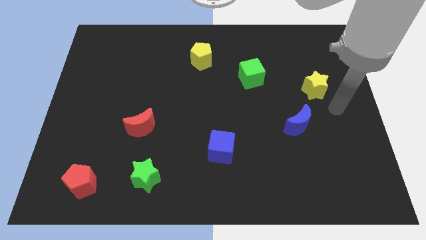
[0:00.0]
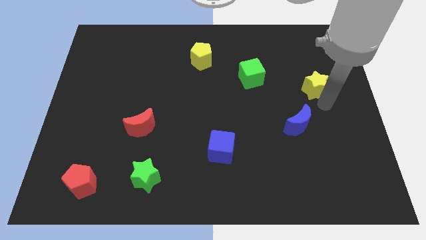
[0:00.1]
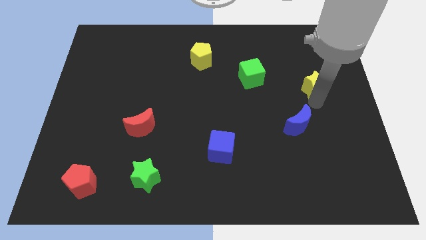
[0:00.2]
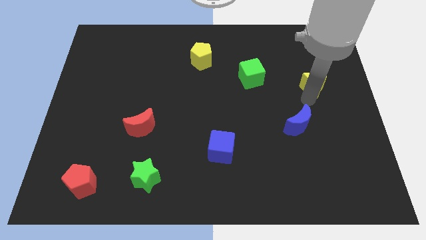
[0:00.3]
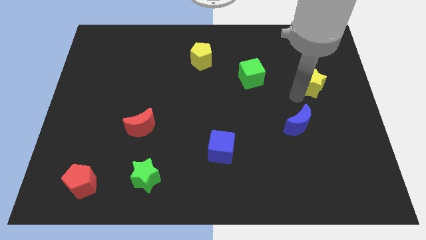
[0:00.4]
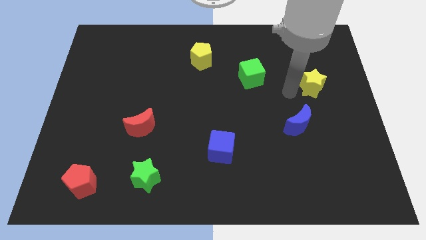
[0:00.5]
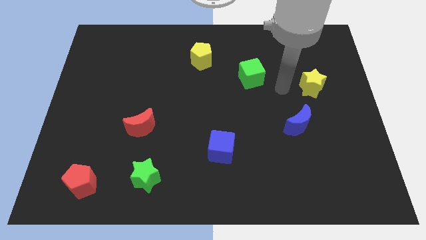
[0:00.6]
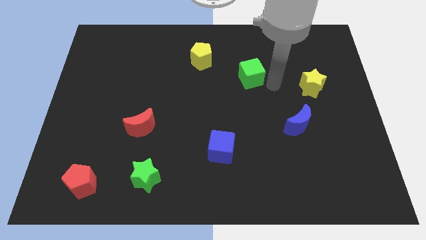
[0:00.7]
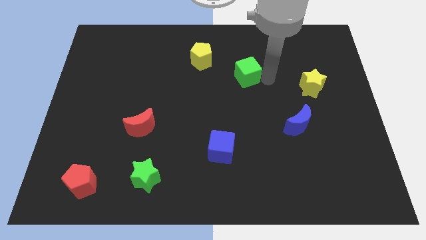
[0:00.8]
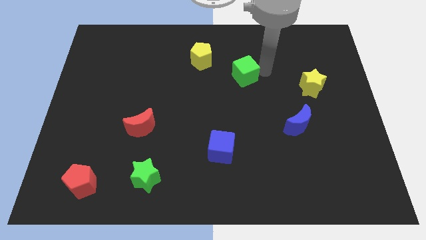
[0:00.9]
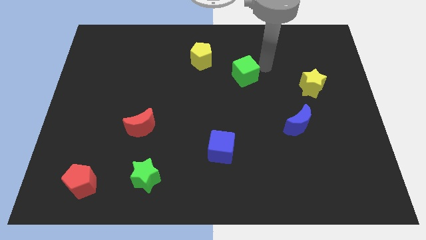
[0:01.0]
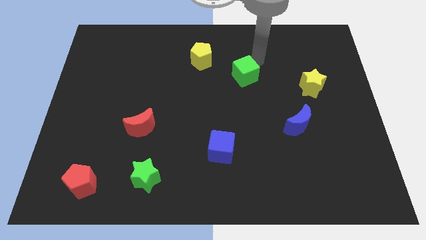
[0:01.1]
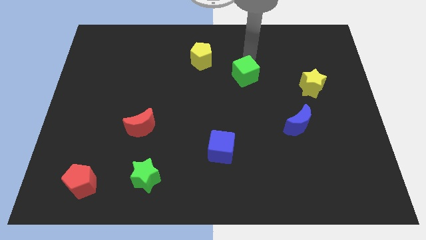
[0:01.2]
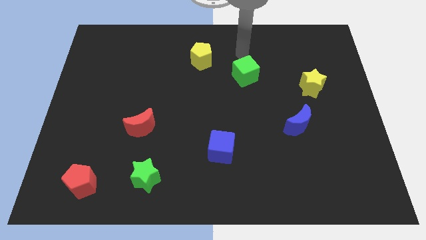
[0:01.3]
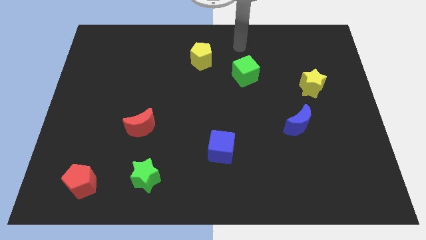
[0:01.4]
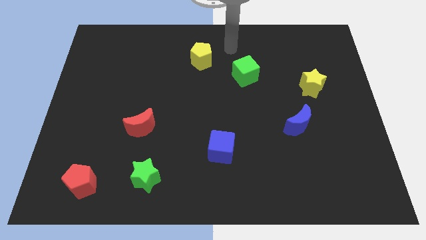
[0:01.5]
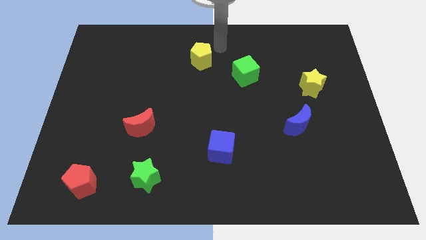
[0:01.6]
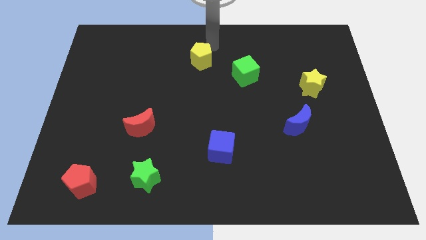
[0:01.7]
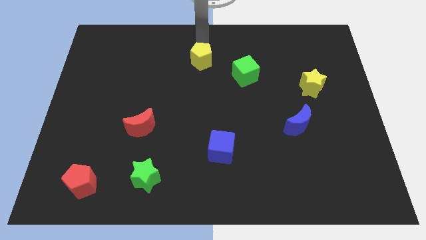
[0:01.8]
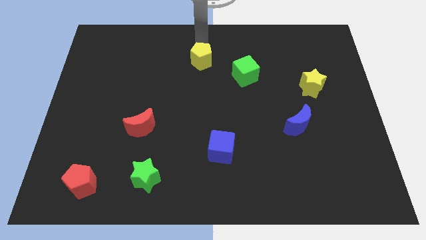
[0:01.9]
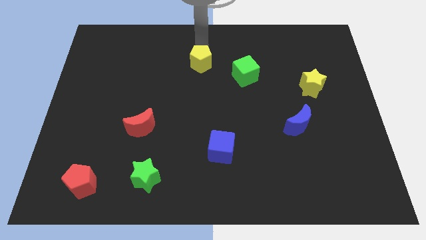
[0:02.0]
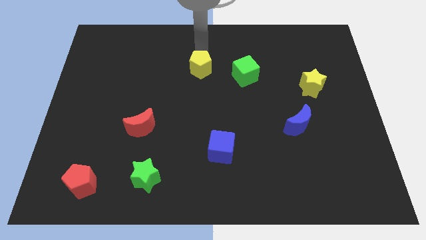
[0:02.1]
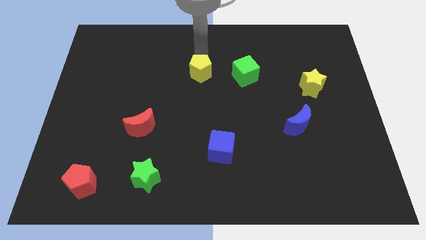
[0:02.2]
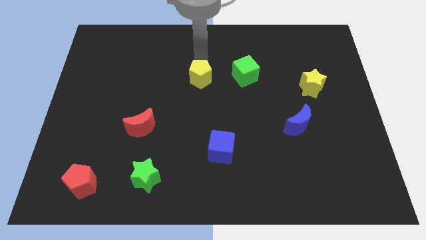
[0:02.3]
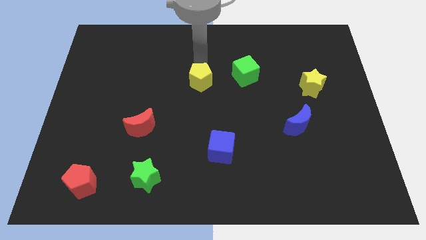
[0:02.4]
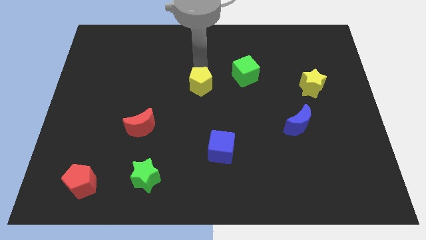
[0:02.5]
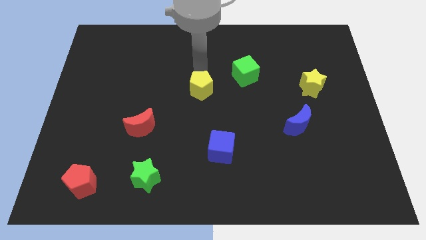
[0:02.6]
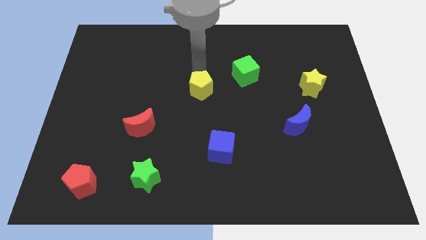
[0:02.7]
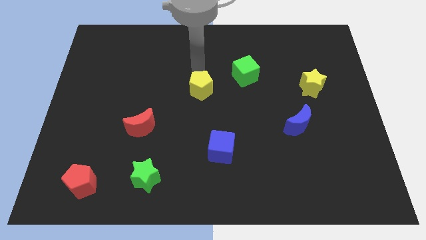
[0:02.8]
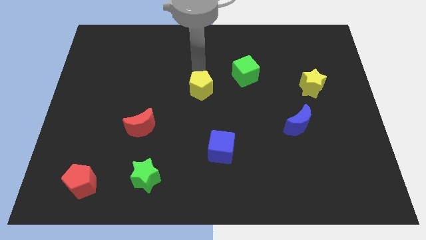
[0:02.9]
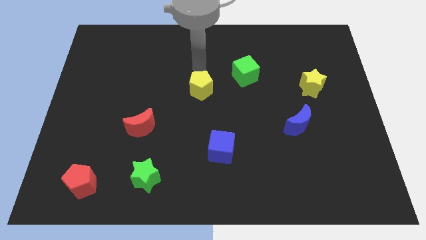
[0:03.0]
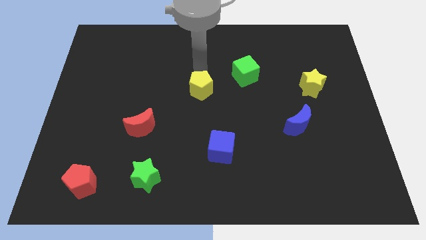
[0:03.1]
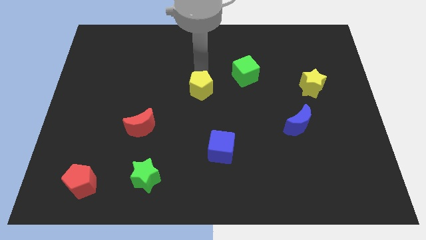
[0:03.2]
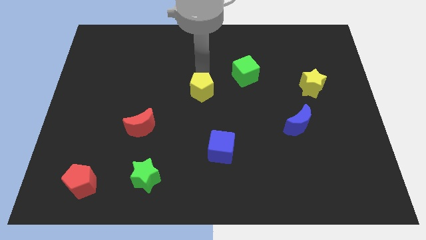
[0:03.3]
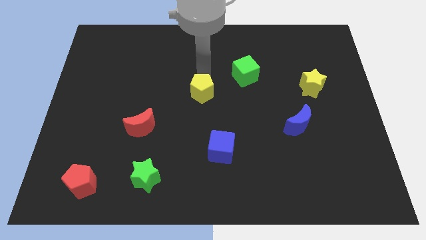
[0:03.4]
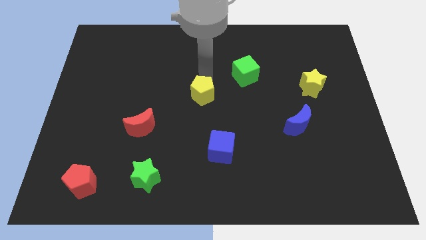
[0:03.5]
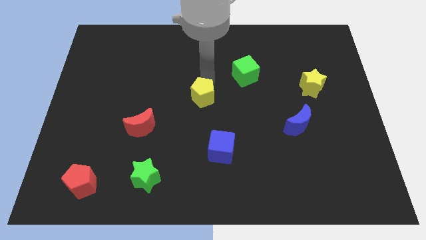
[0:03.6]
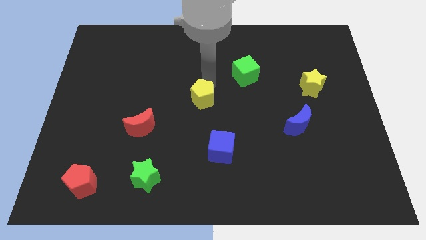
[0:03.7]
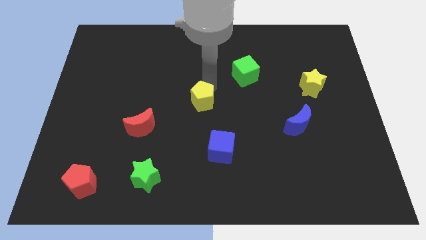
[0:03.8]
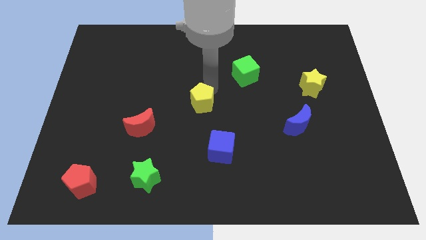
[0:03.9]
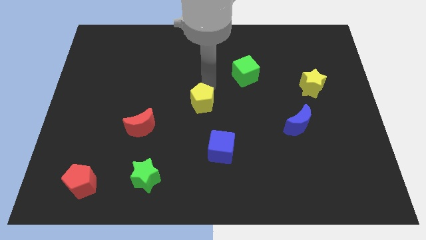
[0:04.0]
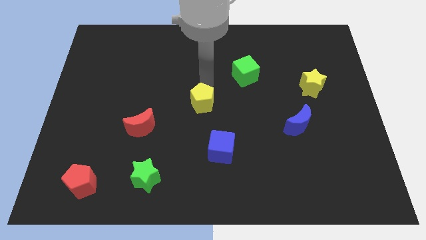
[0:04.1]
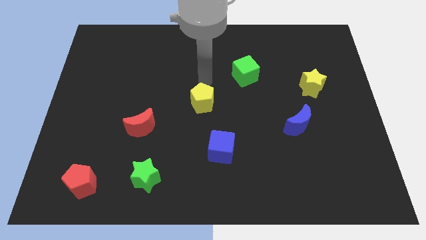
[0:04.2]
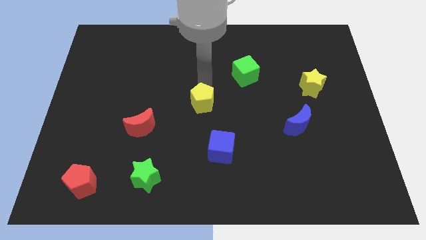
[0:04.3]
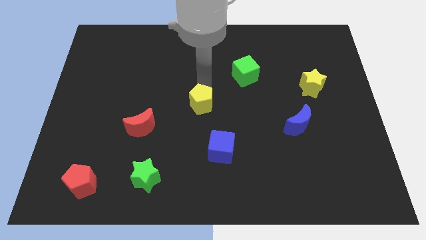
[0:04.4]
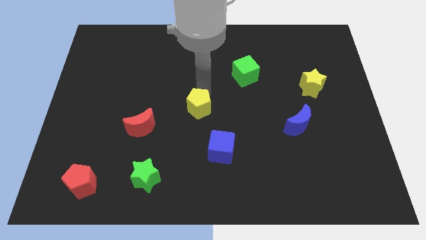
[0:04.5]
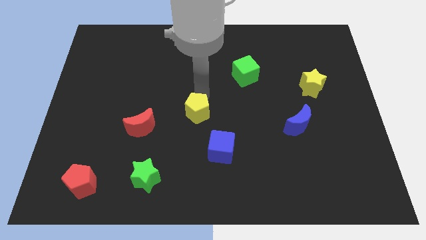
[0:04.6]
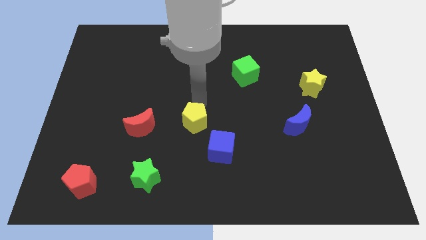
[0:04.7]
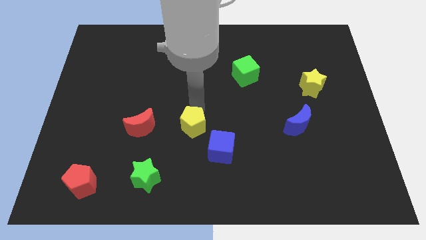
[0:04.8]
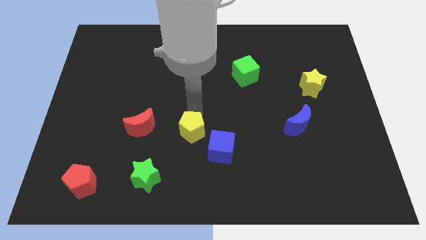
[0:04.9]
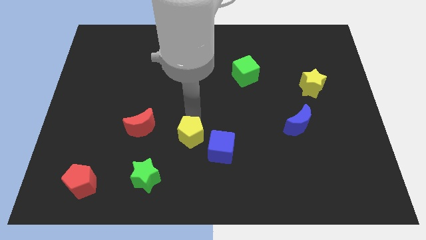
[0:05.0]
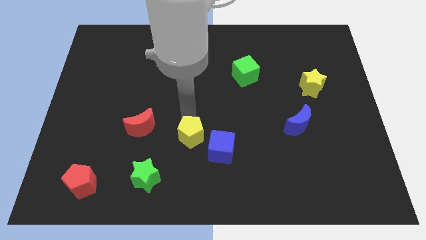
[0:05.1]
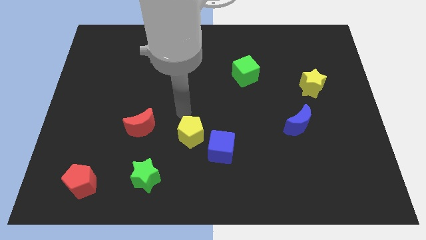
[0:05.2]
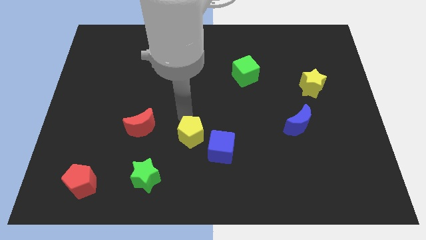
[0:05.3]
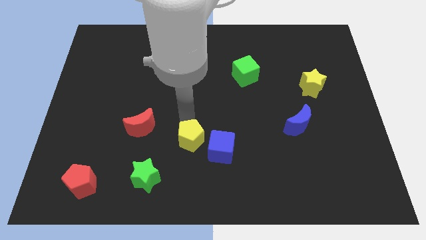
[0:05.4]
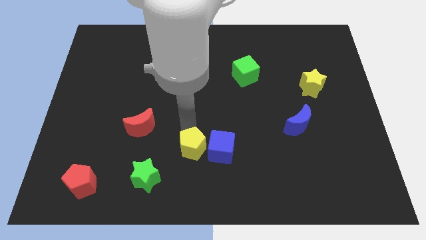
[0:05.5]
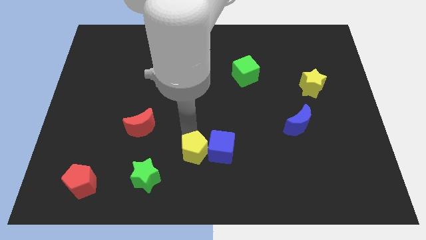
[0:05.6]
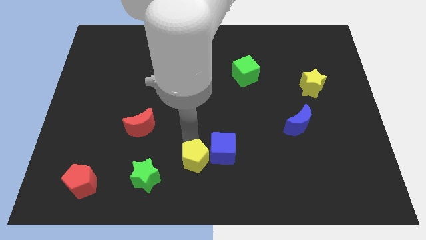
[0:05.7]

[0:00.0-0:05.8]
slide the yellow pentagon to the bottom

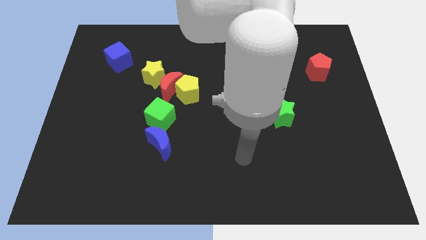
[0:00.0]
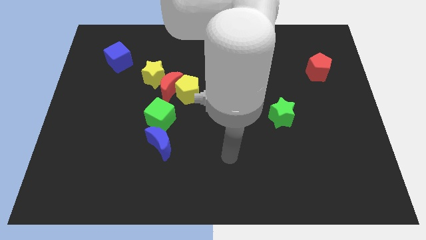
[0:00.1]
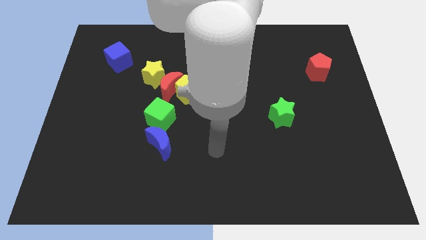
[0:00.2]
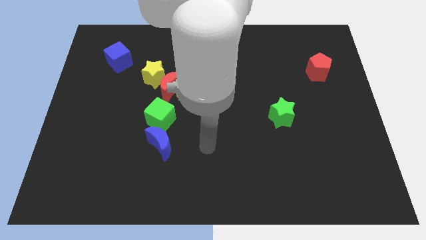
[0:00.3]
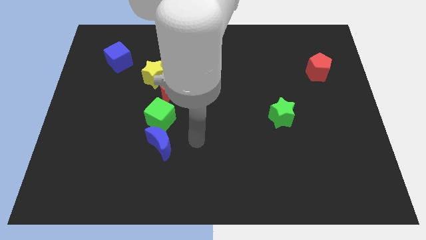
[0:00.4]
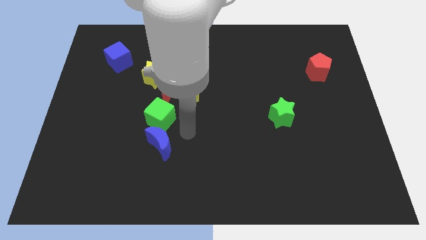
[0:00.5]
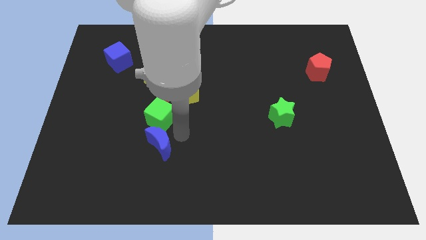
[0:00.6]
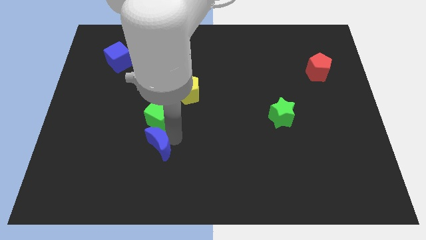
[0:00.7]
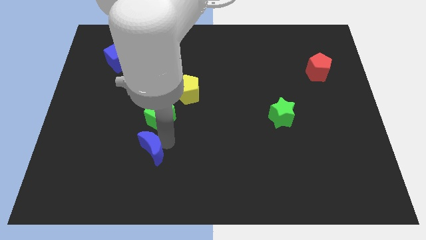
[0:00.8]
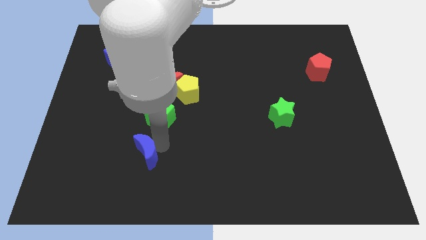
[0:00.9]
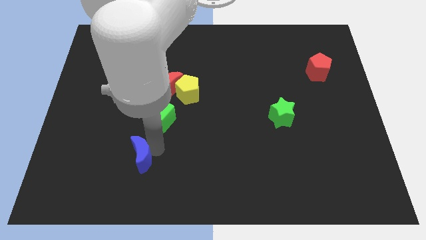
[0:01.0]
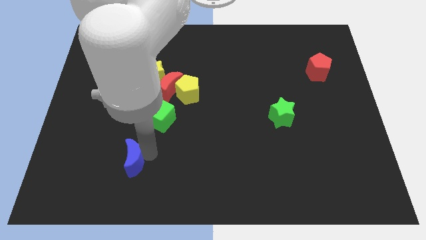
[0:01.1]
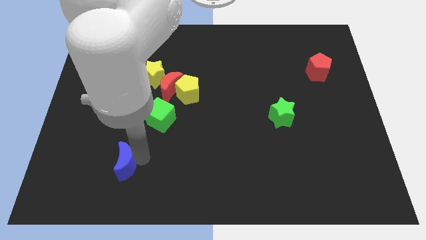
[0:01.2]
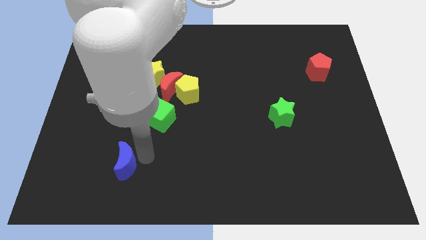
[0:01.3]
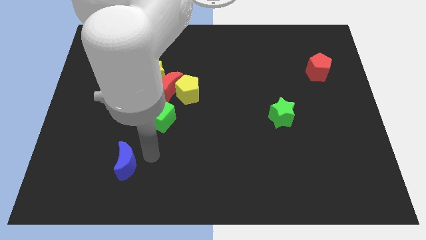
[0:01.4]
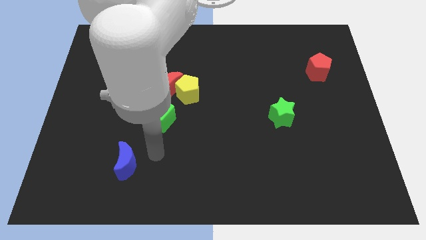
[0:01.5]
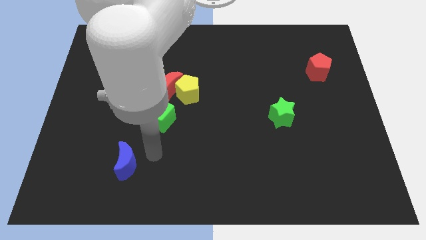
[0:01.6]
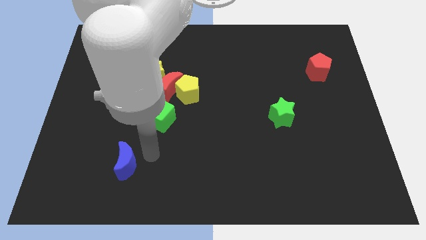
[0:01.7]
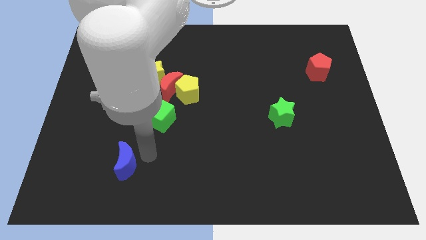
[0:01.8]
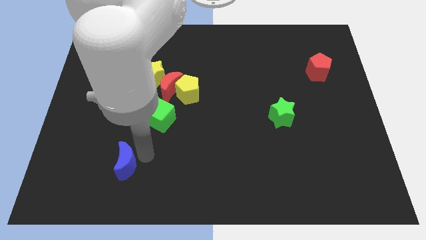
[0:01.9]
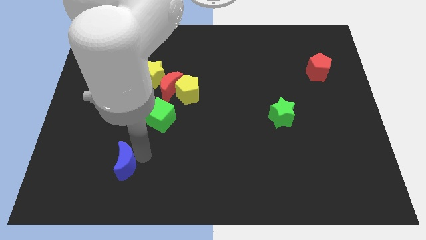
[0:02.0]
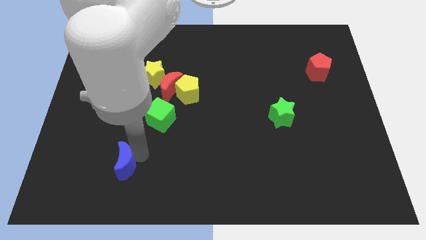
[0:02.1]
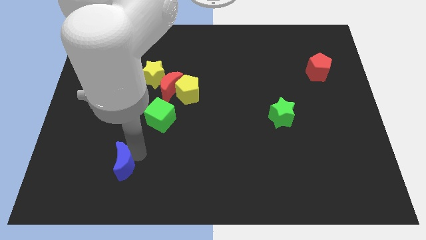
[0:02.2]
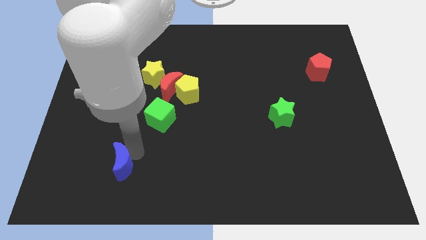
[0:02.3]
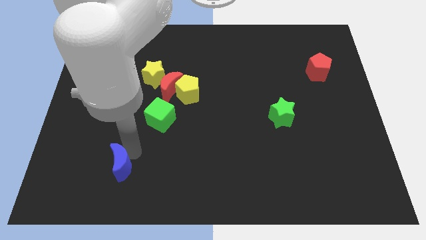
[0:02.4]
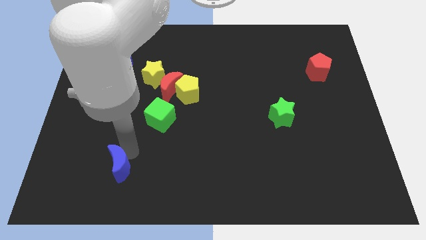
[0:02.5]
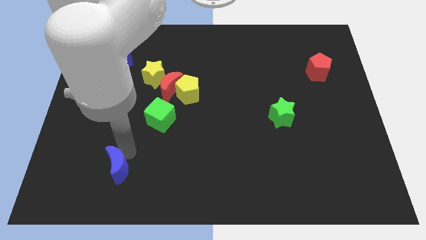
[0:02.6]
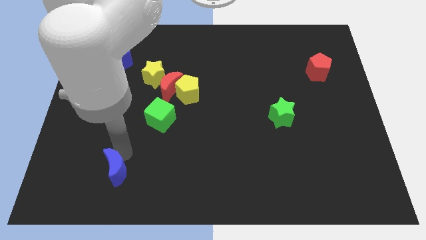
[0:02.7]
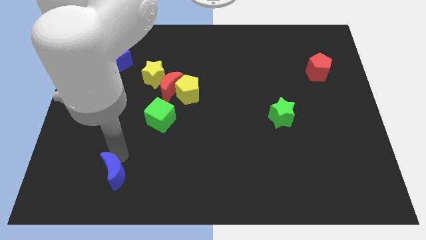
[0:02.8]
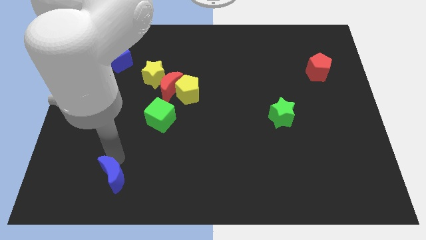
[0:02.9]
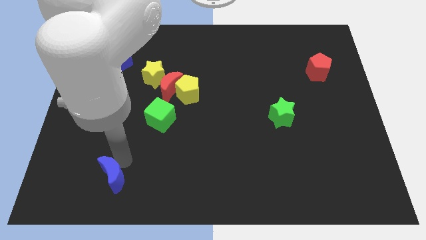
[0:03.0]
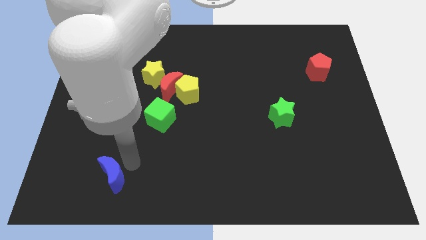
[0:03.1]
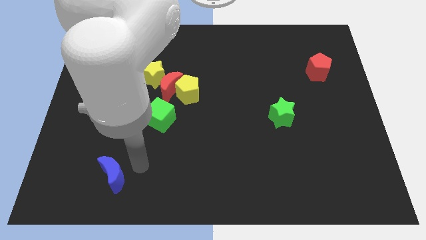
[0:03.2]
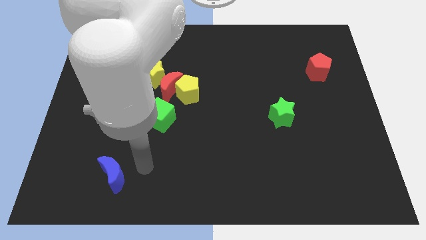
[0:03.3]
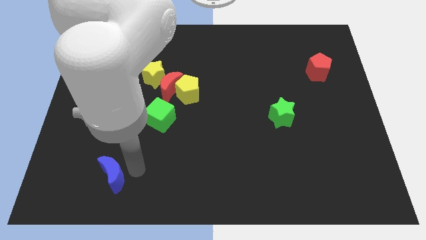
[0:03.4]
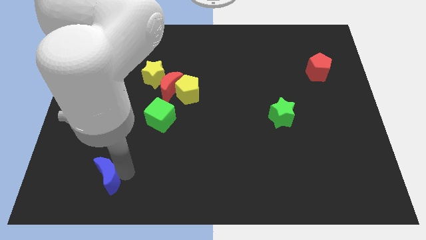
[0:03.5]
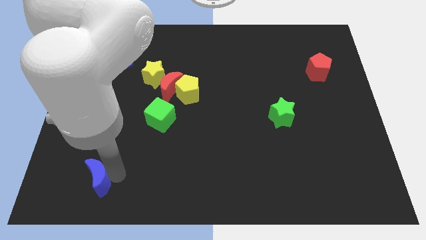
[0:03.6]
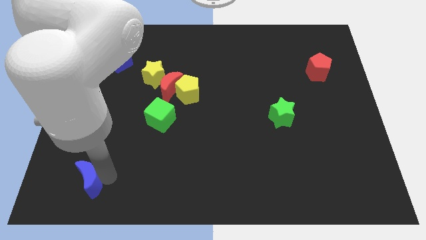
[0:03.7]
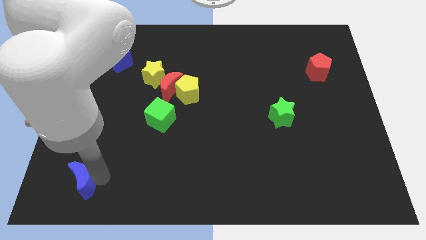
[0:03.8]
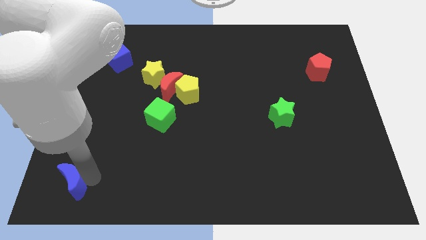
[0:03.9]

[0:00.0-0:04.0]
push the blue moon to the bottom left
